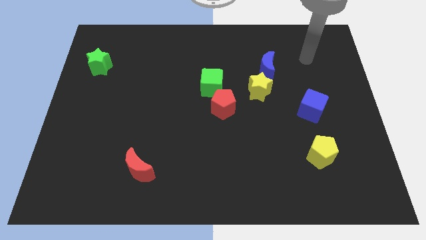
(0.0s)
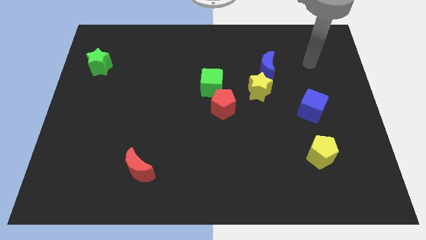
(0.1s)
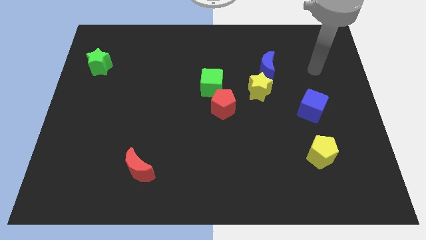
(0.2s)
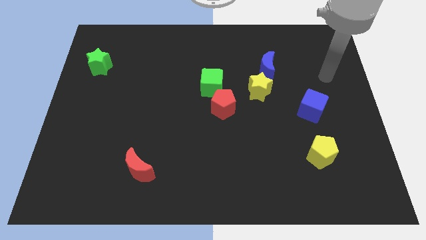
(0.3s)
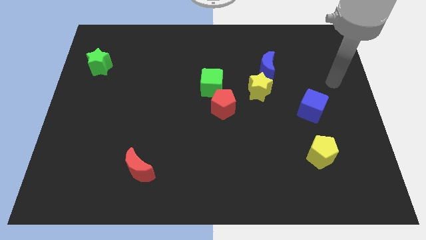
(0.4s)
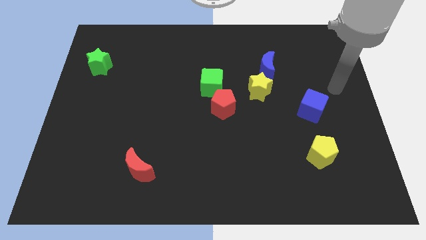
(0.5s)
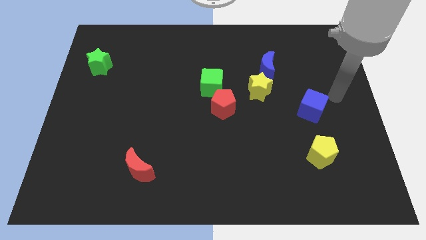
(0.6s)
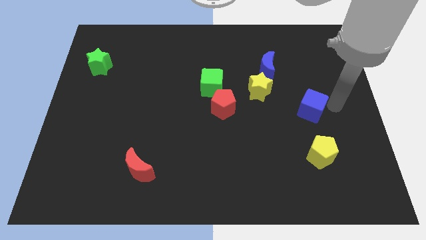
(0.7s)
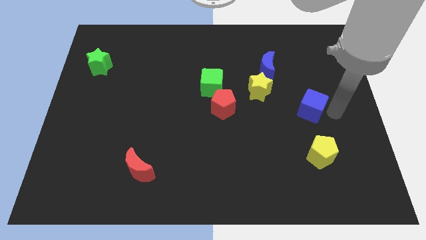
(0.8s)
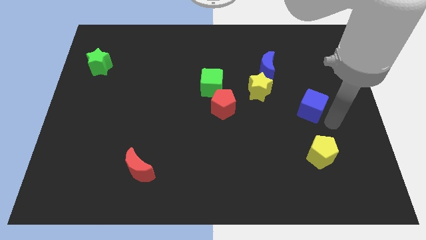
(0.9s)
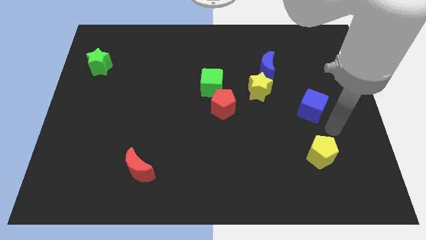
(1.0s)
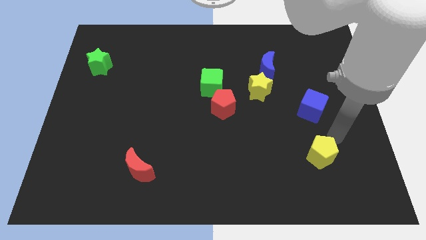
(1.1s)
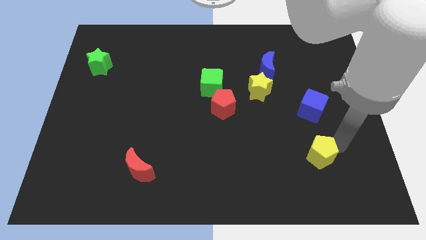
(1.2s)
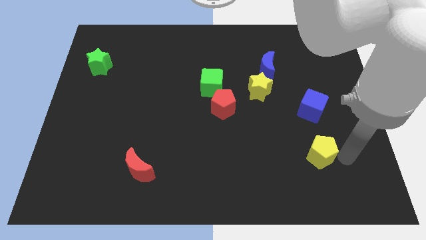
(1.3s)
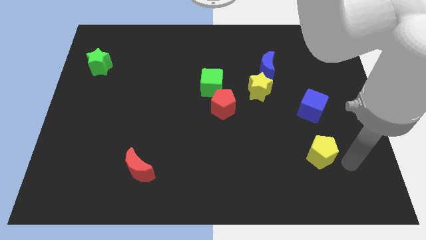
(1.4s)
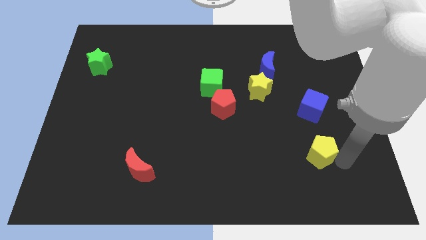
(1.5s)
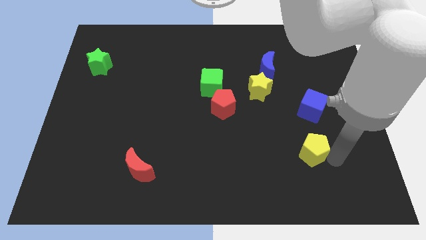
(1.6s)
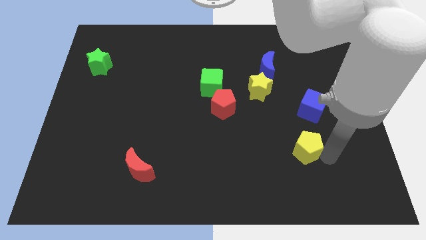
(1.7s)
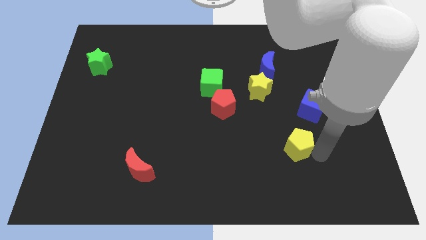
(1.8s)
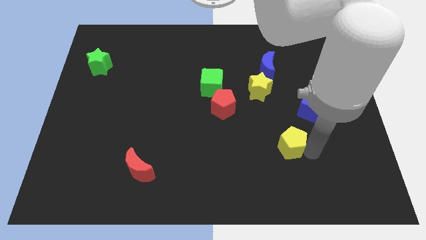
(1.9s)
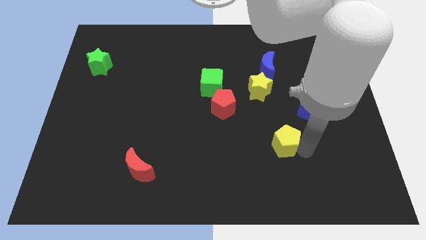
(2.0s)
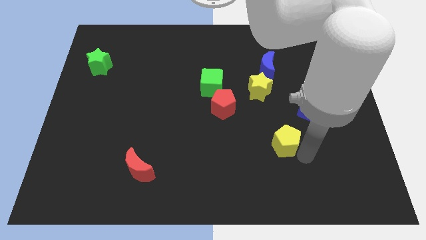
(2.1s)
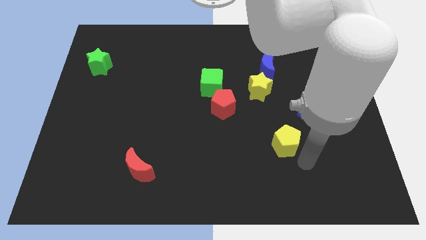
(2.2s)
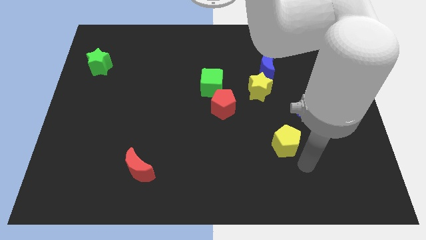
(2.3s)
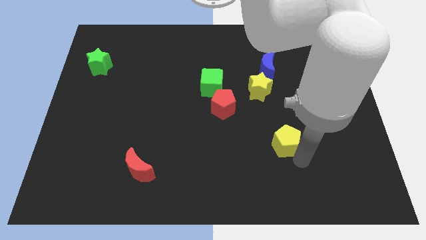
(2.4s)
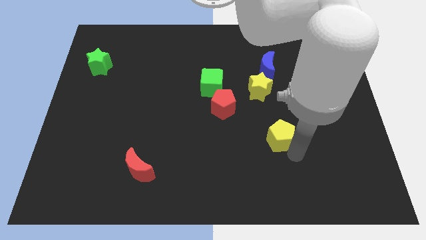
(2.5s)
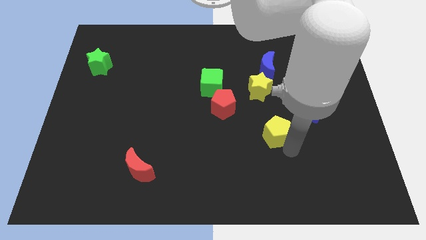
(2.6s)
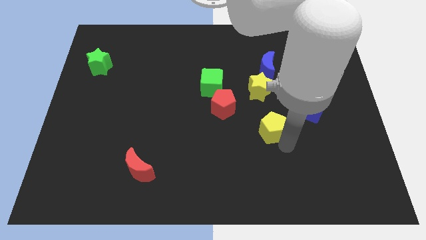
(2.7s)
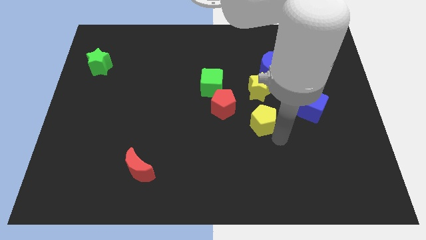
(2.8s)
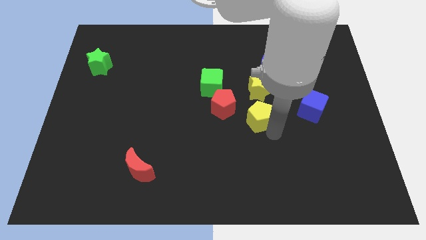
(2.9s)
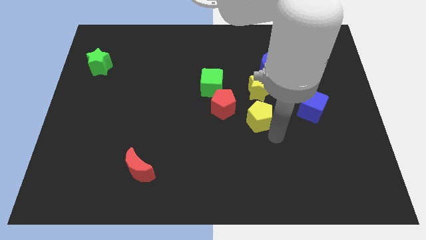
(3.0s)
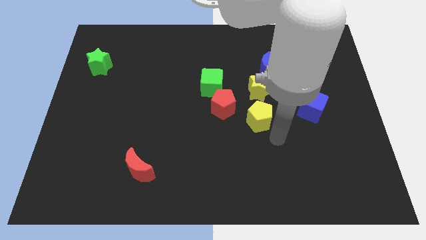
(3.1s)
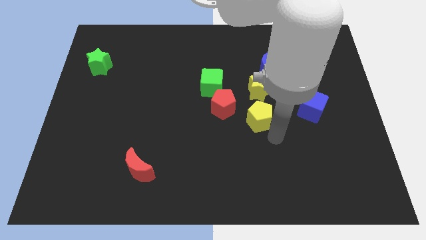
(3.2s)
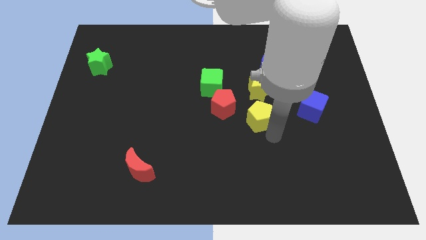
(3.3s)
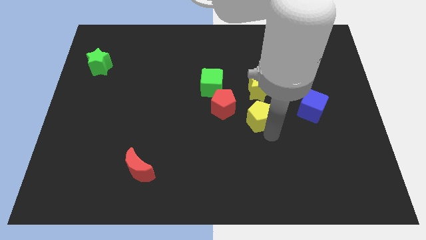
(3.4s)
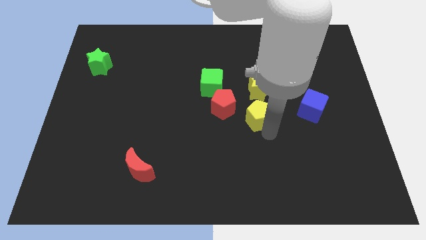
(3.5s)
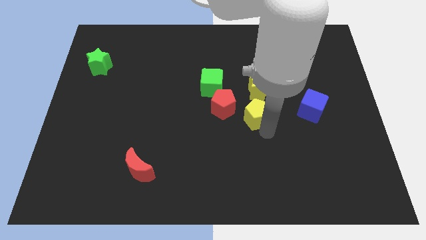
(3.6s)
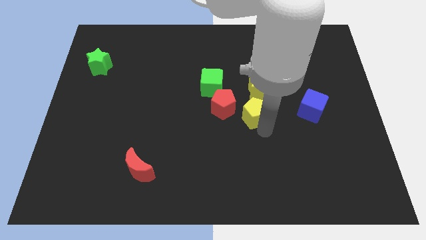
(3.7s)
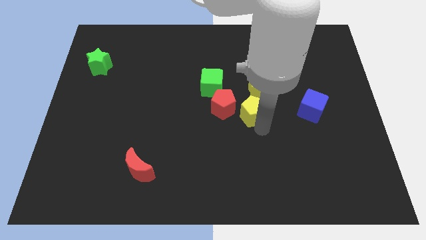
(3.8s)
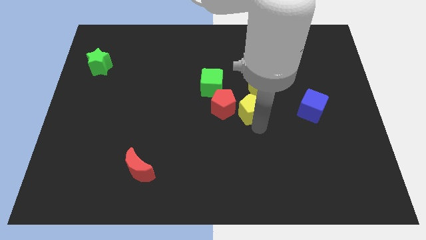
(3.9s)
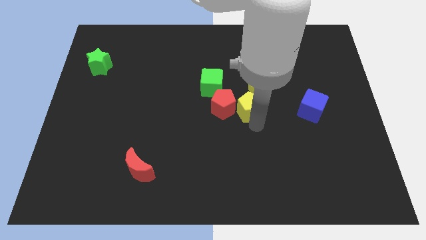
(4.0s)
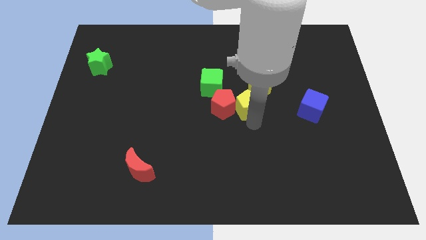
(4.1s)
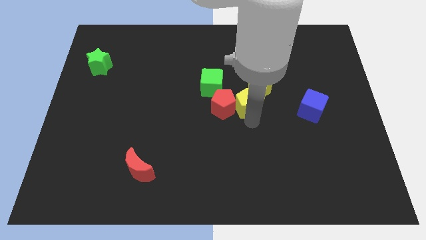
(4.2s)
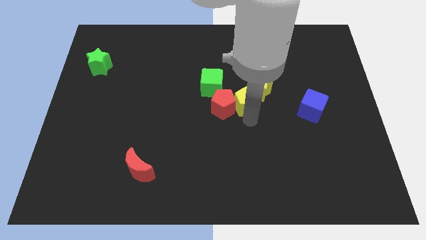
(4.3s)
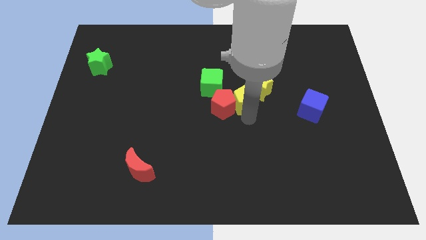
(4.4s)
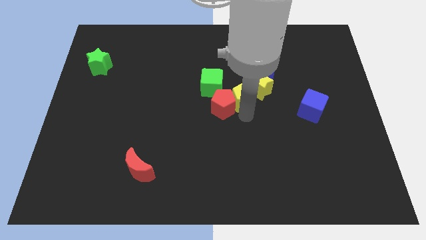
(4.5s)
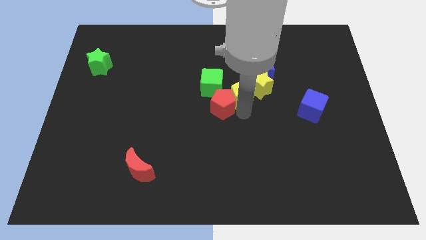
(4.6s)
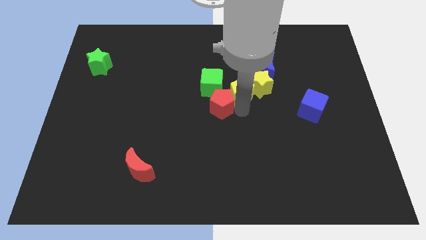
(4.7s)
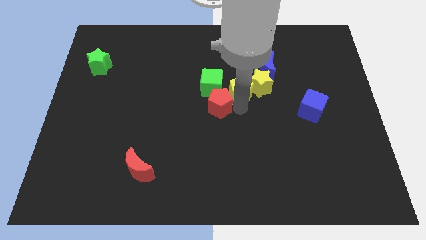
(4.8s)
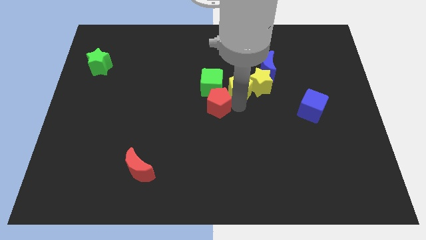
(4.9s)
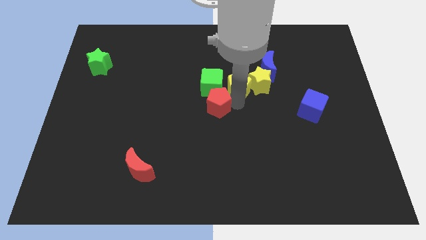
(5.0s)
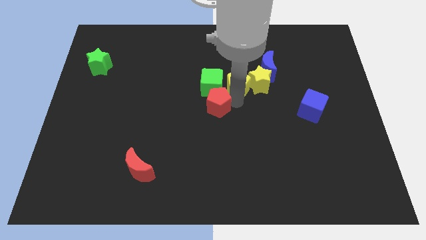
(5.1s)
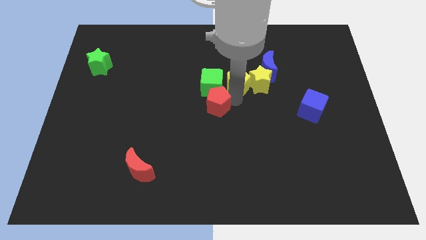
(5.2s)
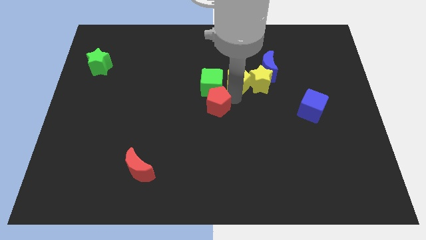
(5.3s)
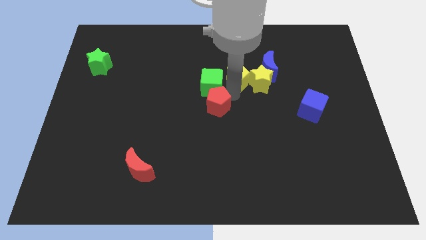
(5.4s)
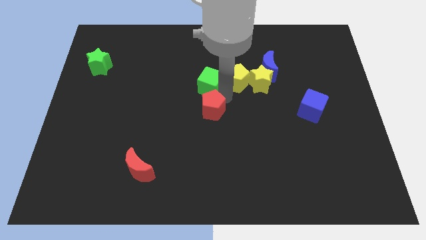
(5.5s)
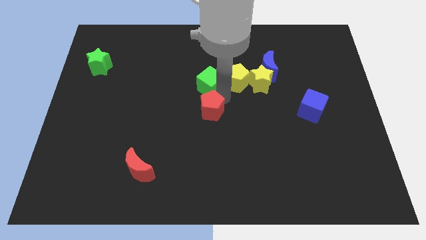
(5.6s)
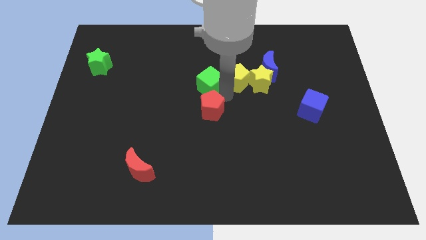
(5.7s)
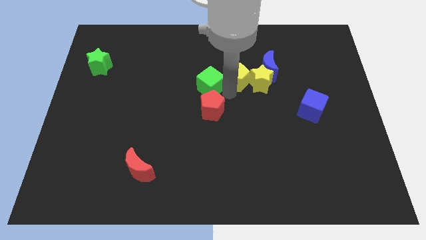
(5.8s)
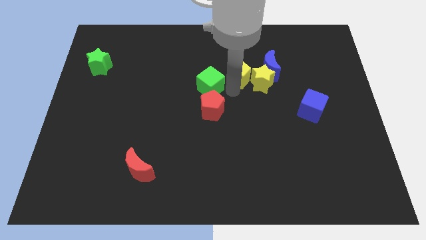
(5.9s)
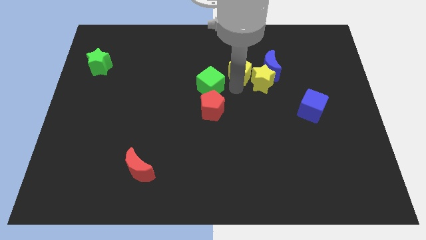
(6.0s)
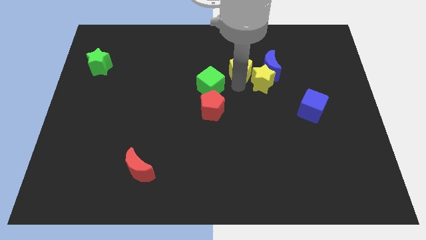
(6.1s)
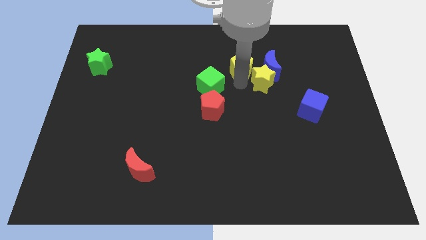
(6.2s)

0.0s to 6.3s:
slide the yellow pentagon to the top side of the yellow star

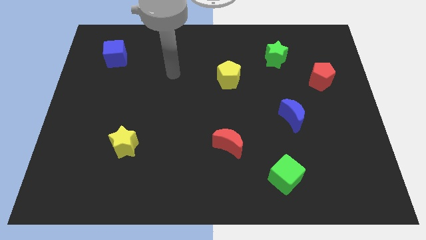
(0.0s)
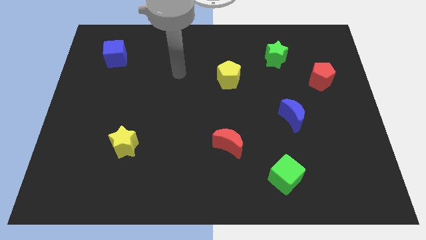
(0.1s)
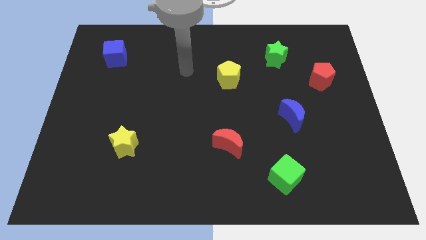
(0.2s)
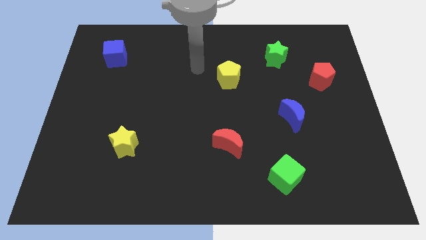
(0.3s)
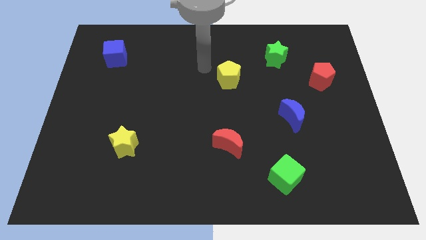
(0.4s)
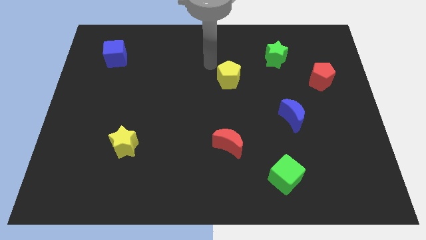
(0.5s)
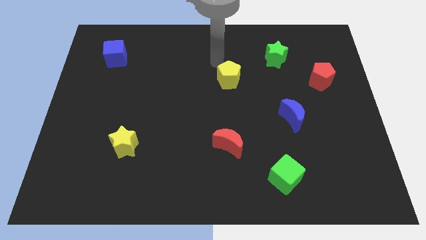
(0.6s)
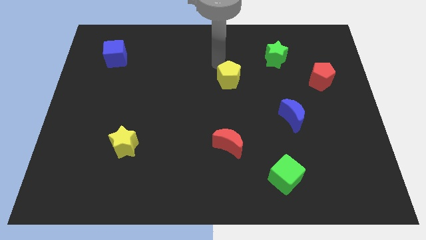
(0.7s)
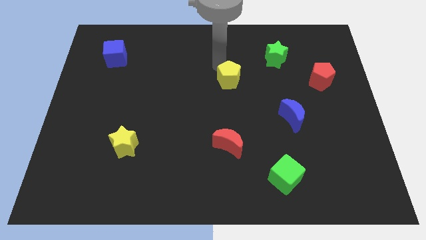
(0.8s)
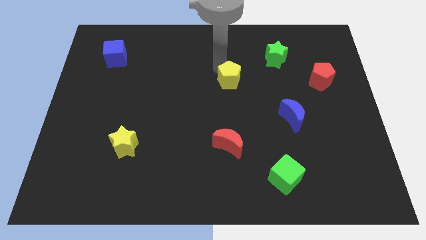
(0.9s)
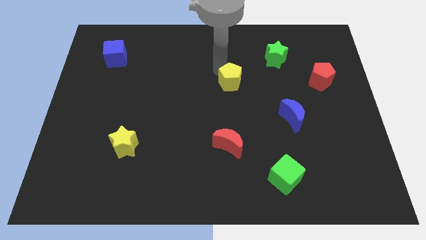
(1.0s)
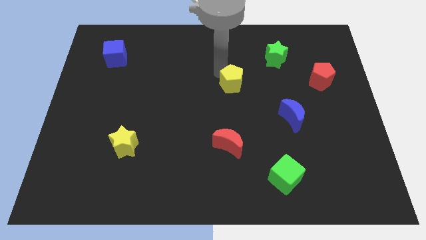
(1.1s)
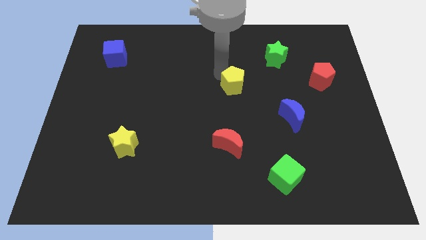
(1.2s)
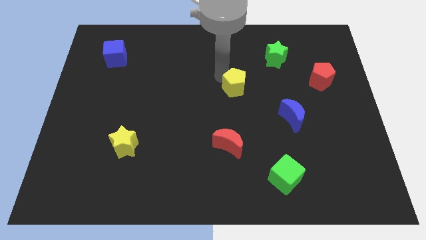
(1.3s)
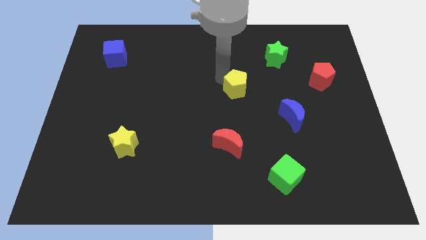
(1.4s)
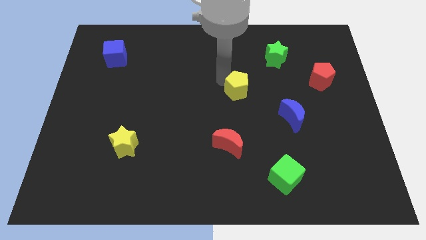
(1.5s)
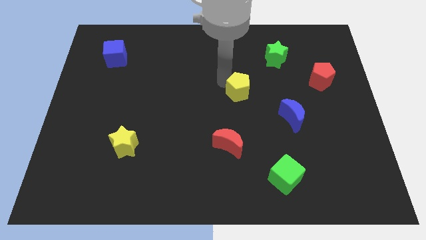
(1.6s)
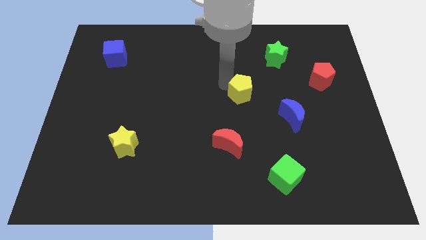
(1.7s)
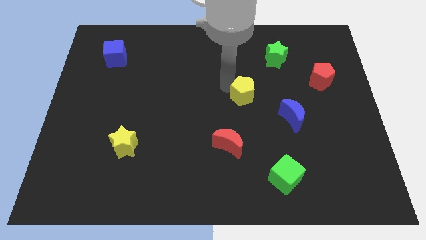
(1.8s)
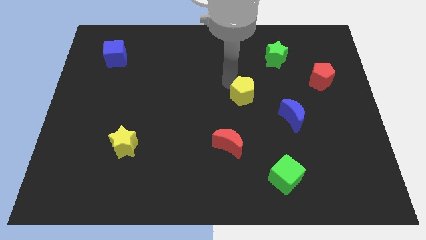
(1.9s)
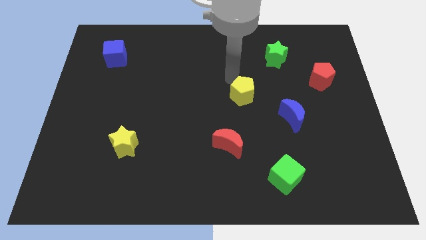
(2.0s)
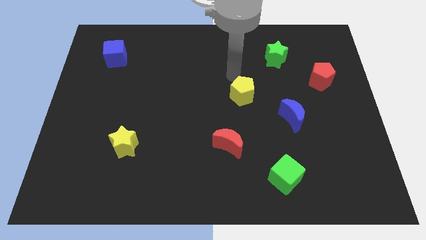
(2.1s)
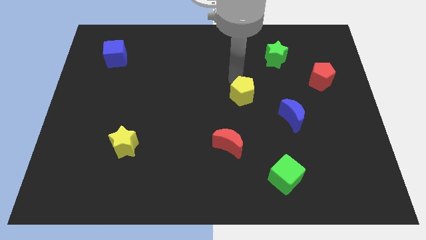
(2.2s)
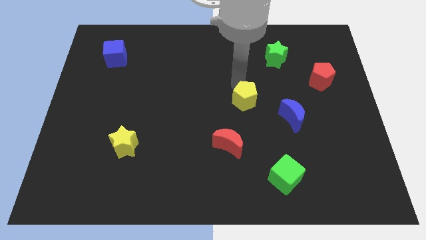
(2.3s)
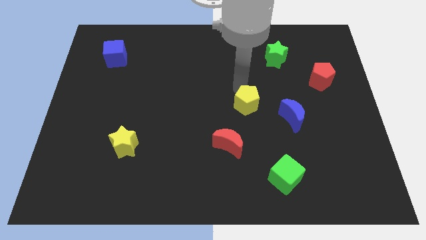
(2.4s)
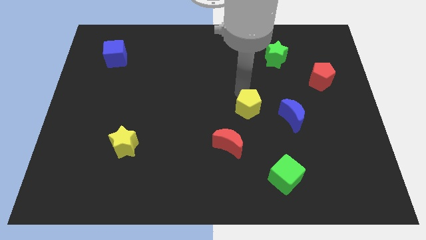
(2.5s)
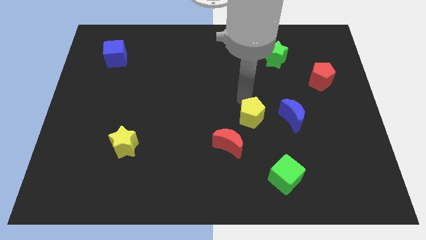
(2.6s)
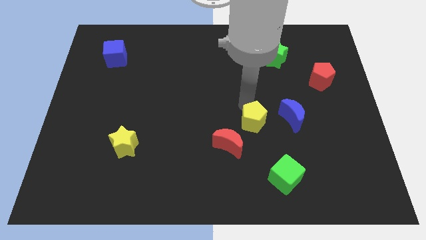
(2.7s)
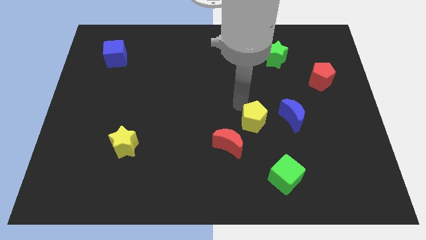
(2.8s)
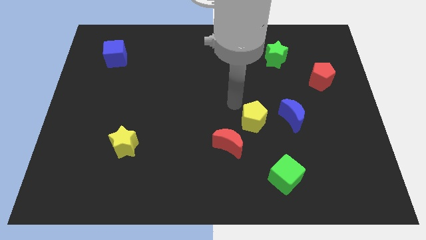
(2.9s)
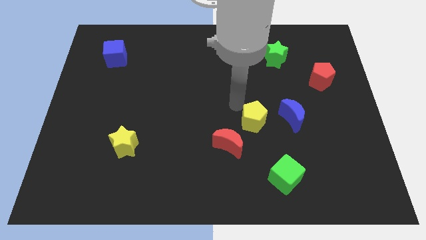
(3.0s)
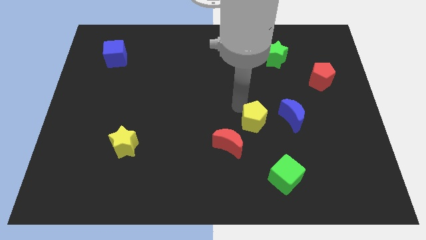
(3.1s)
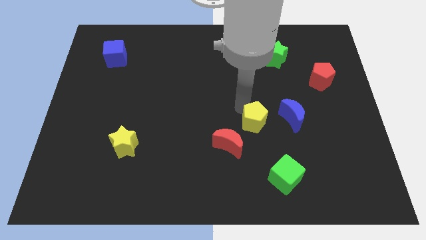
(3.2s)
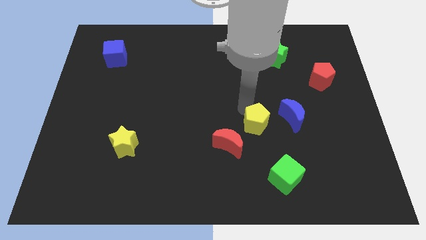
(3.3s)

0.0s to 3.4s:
slide the yellow pentagon diagonally down and to the left of the blue moon
